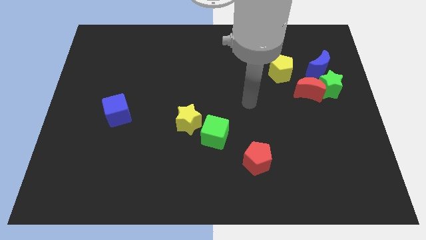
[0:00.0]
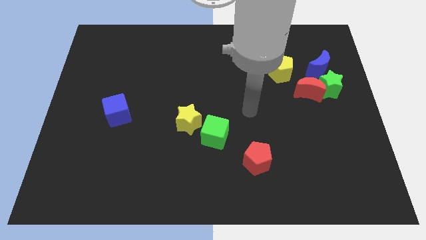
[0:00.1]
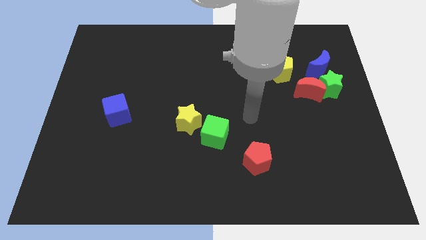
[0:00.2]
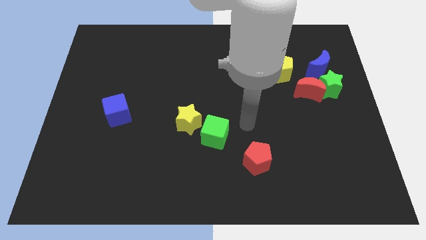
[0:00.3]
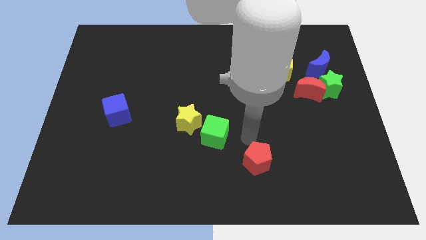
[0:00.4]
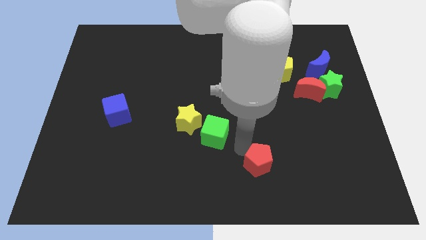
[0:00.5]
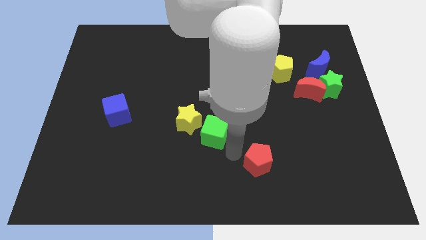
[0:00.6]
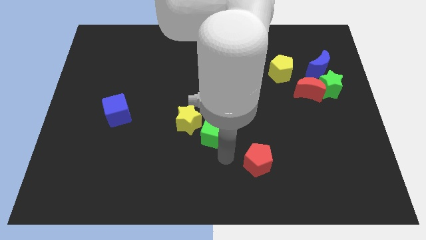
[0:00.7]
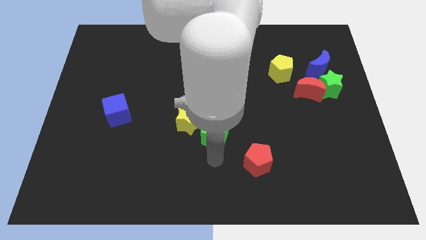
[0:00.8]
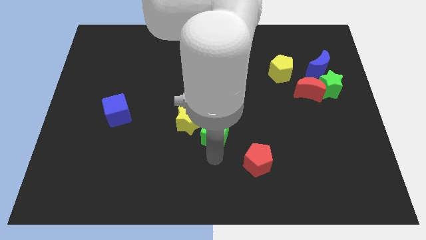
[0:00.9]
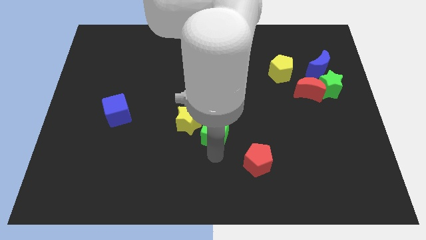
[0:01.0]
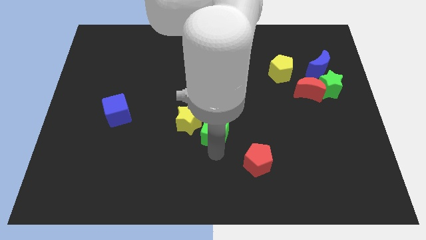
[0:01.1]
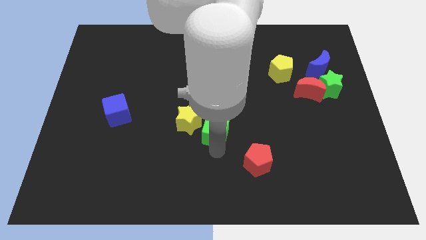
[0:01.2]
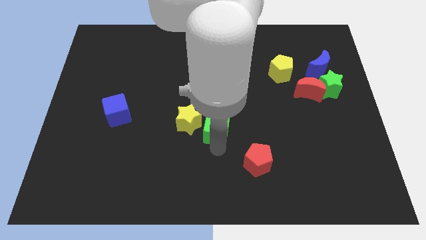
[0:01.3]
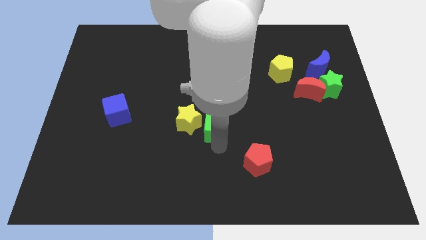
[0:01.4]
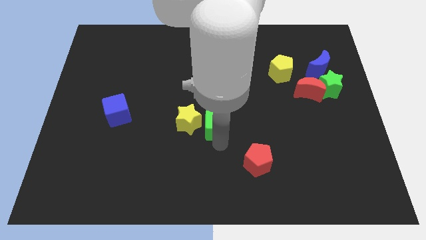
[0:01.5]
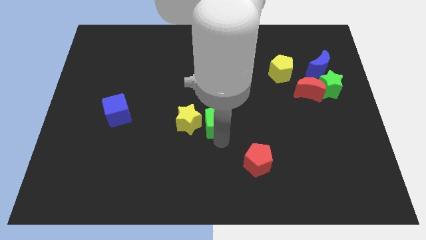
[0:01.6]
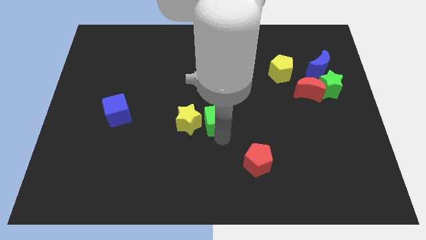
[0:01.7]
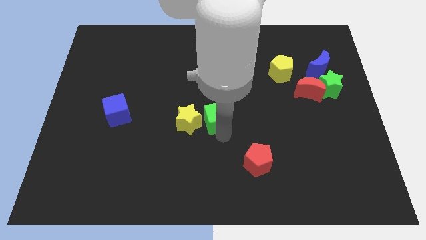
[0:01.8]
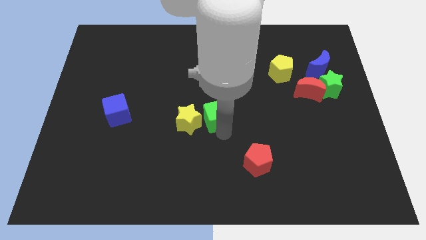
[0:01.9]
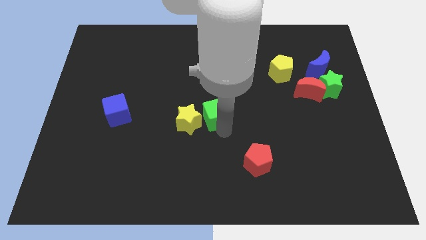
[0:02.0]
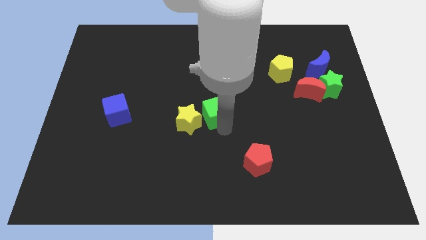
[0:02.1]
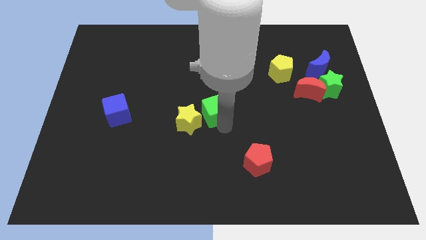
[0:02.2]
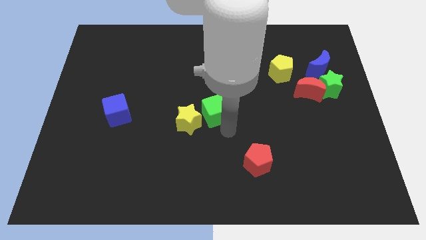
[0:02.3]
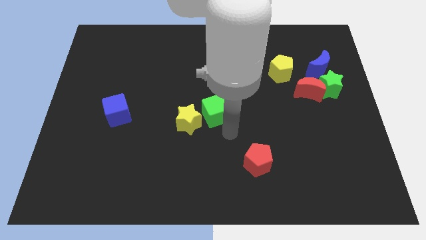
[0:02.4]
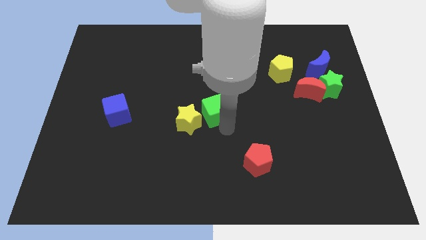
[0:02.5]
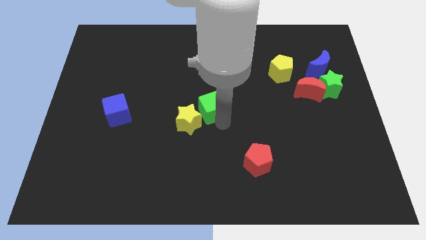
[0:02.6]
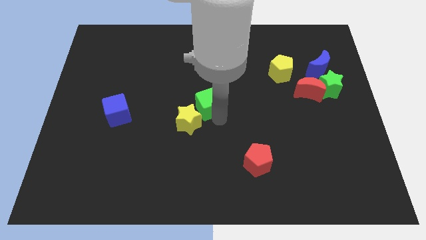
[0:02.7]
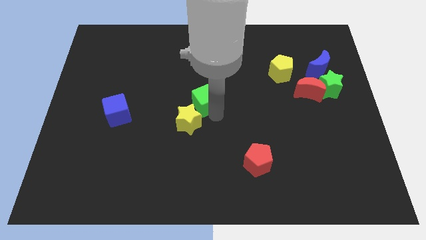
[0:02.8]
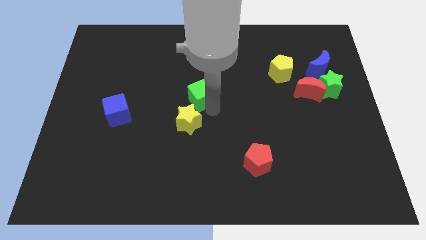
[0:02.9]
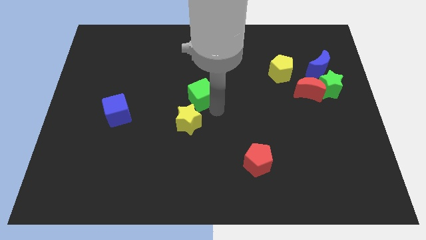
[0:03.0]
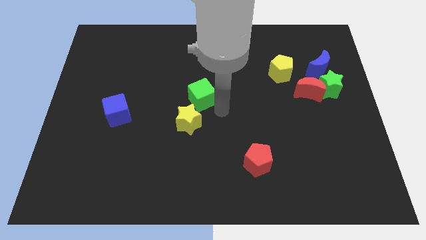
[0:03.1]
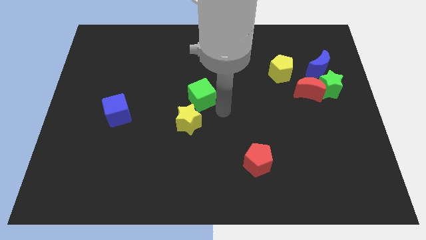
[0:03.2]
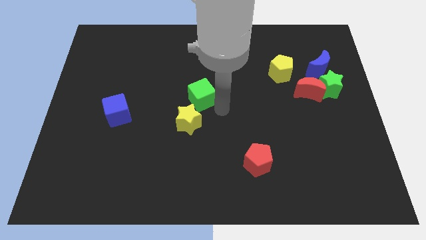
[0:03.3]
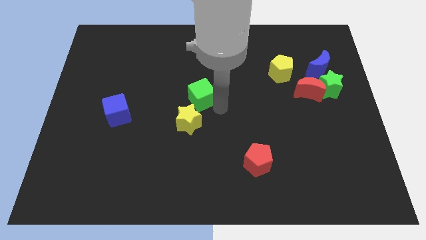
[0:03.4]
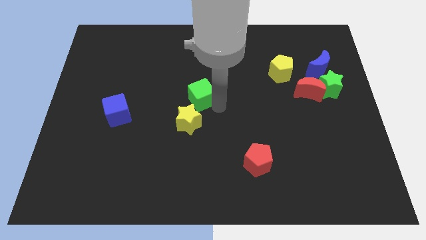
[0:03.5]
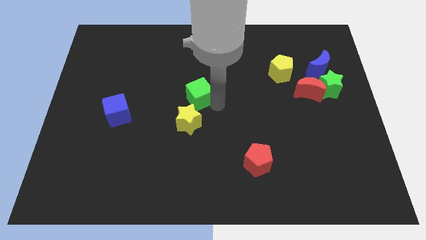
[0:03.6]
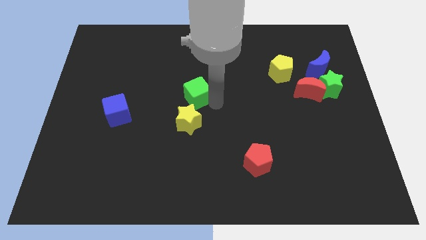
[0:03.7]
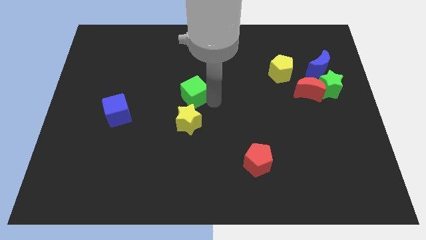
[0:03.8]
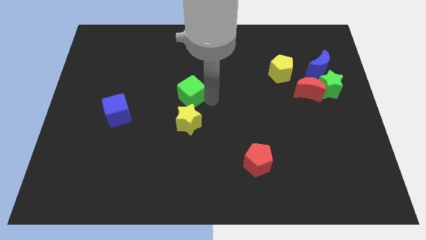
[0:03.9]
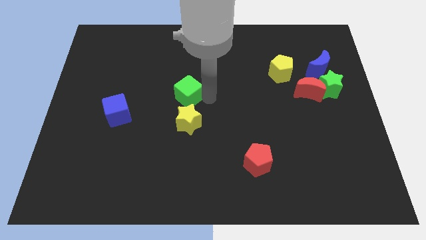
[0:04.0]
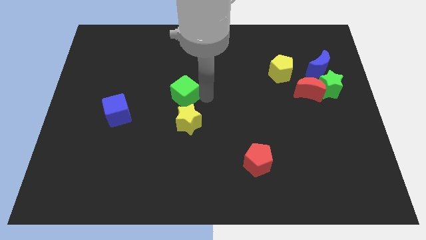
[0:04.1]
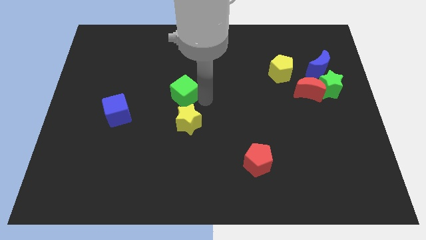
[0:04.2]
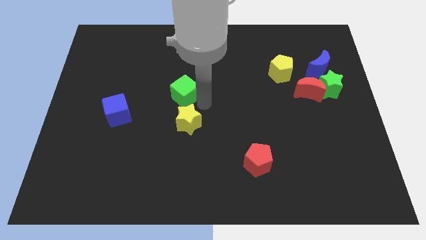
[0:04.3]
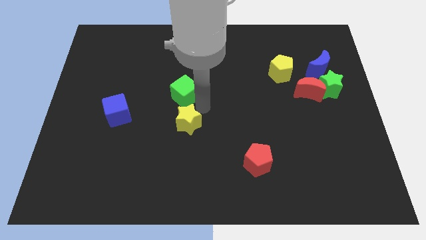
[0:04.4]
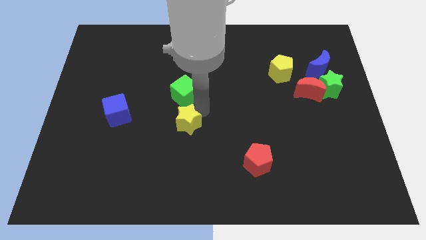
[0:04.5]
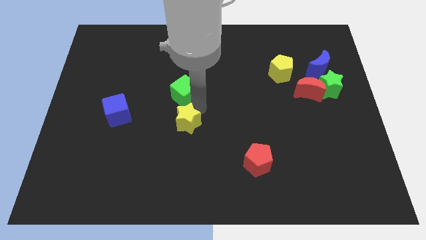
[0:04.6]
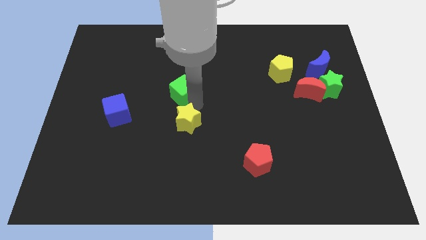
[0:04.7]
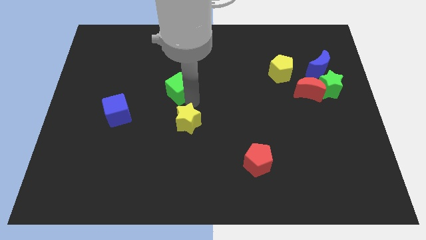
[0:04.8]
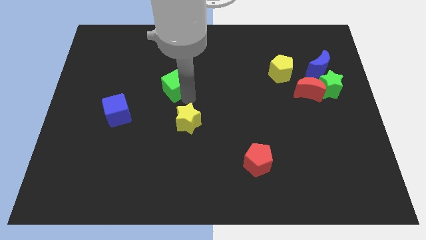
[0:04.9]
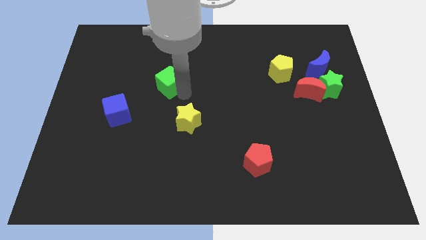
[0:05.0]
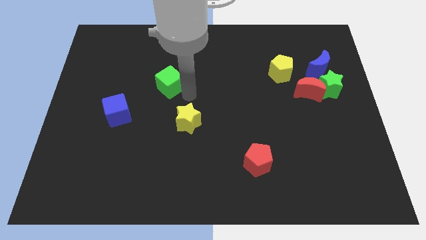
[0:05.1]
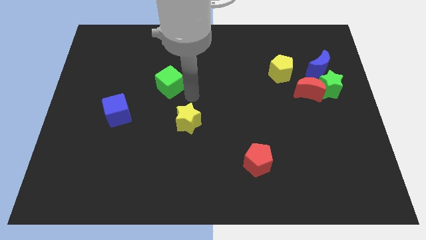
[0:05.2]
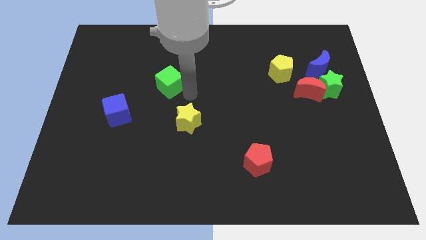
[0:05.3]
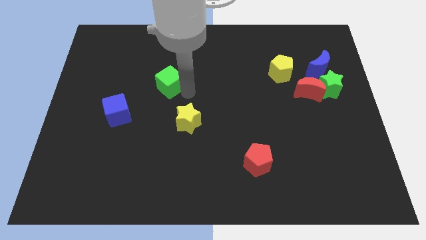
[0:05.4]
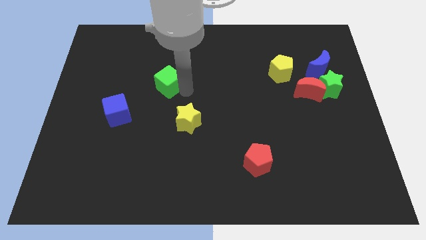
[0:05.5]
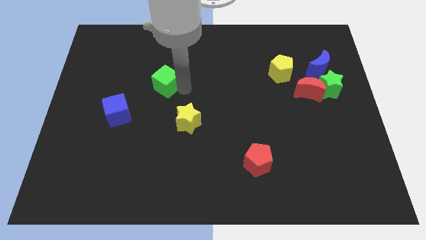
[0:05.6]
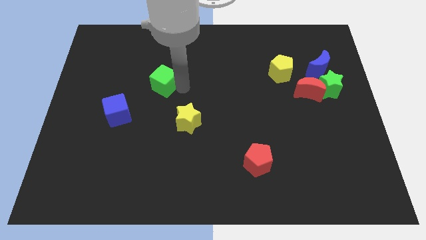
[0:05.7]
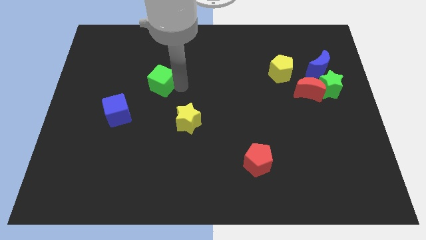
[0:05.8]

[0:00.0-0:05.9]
slide the green cube upwards and then to the left

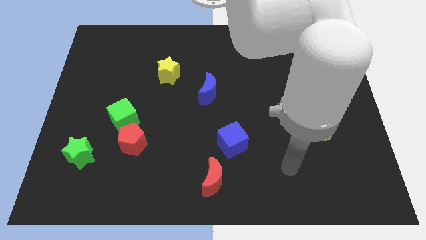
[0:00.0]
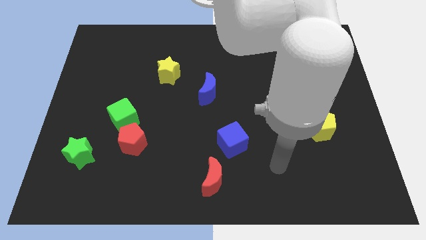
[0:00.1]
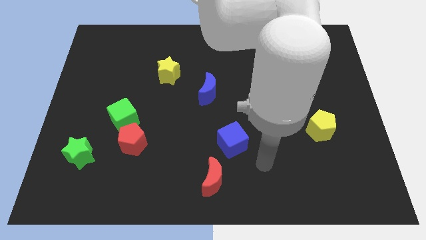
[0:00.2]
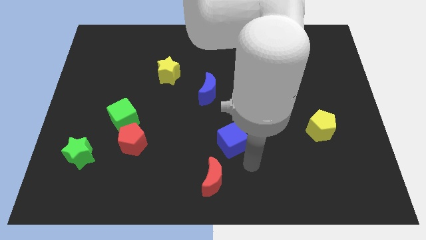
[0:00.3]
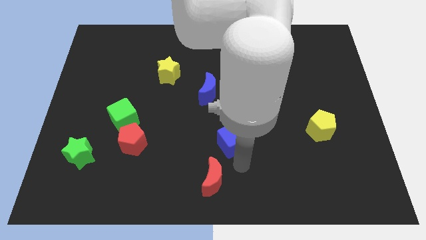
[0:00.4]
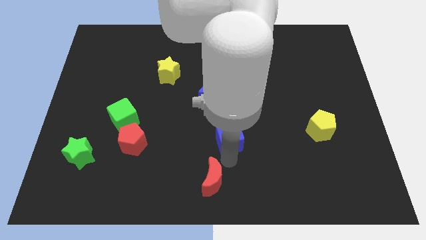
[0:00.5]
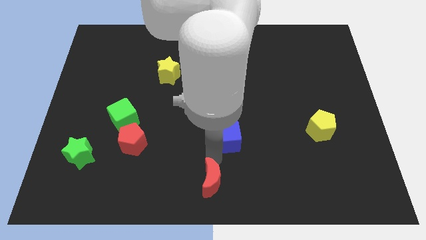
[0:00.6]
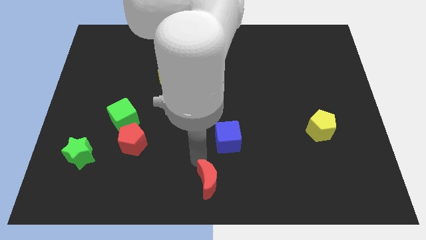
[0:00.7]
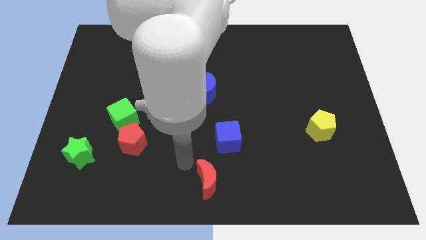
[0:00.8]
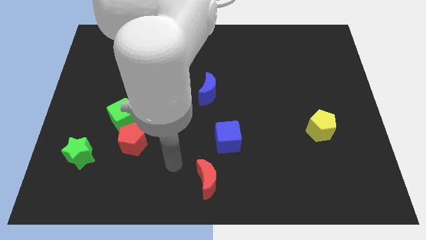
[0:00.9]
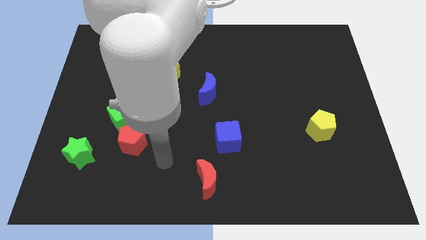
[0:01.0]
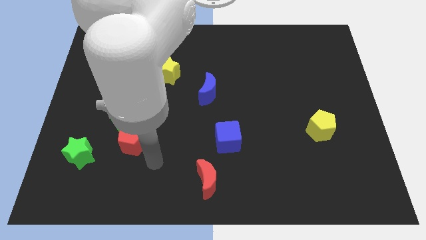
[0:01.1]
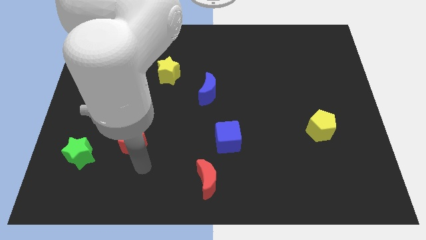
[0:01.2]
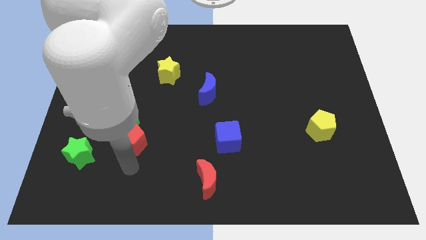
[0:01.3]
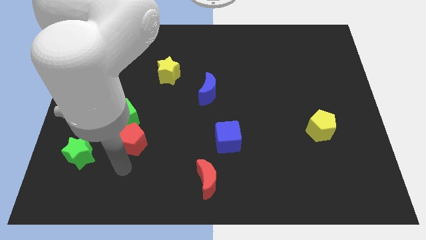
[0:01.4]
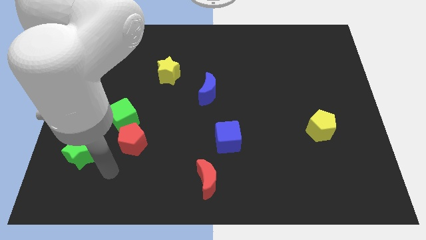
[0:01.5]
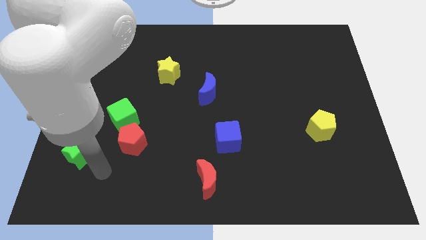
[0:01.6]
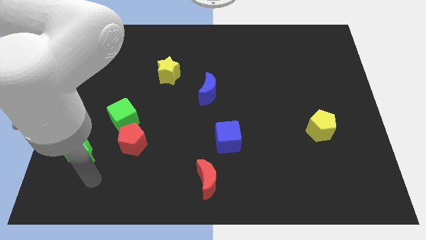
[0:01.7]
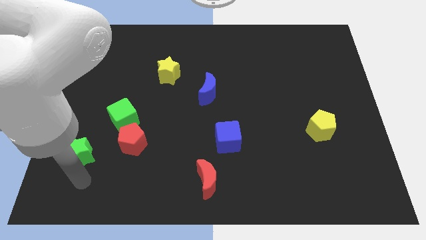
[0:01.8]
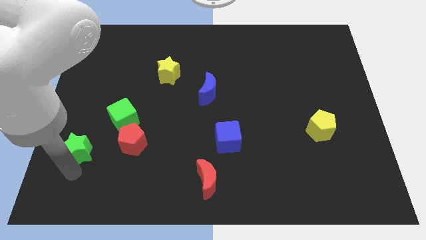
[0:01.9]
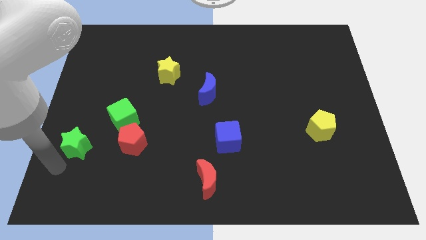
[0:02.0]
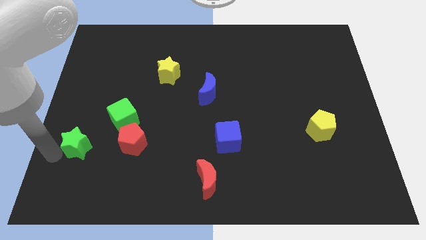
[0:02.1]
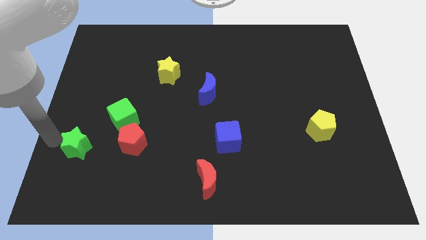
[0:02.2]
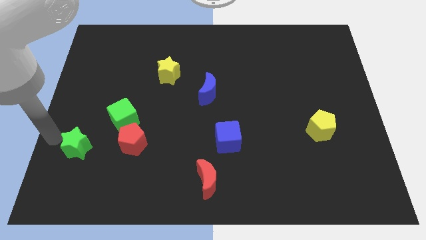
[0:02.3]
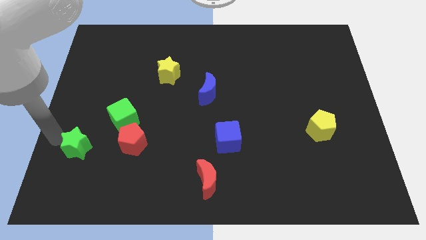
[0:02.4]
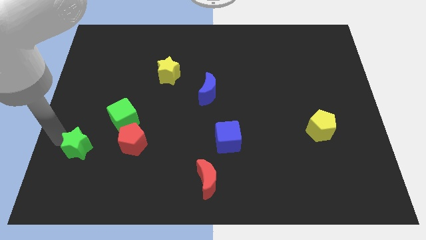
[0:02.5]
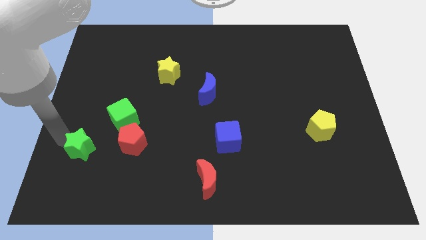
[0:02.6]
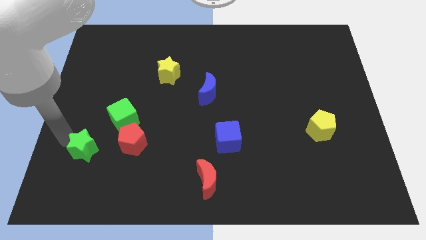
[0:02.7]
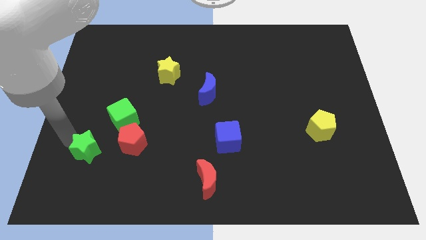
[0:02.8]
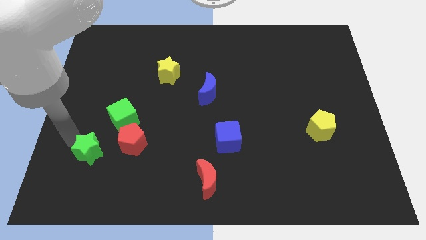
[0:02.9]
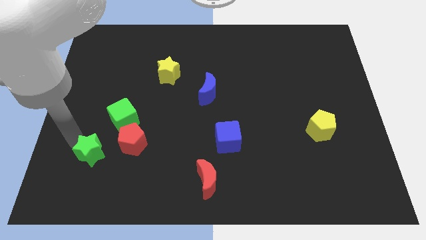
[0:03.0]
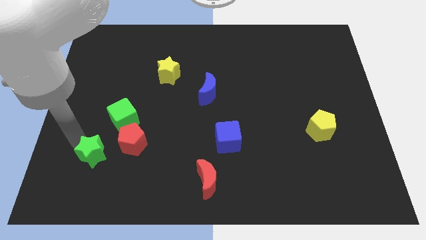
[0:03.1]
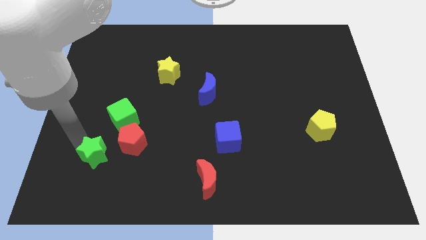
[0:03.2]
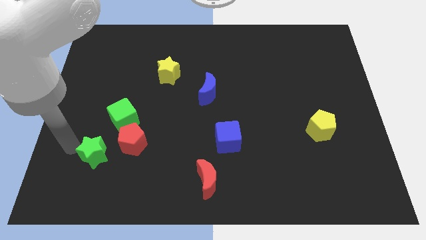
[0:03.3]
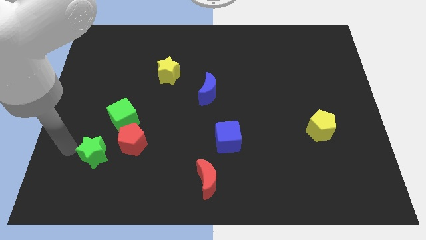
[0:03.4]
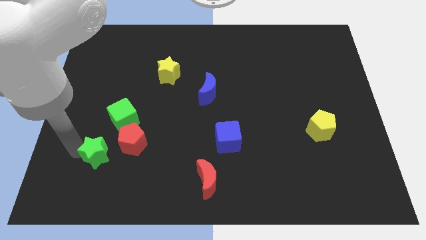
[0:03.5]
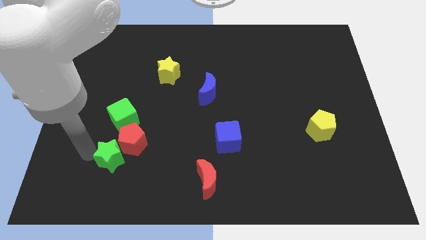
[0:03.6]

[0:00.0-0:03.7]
push the green star a bit to the right
